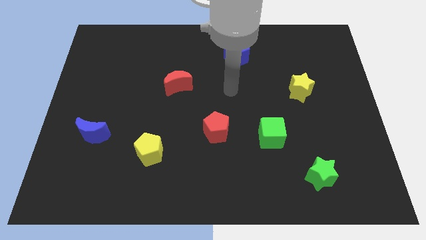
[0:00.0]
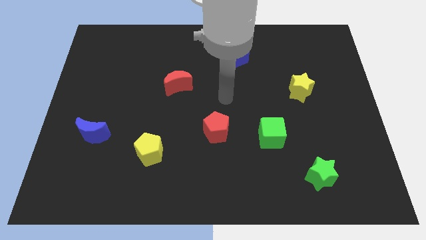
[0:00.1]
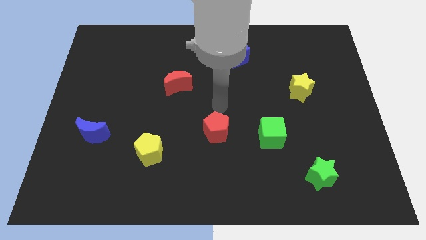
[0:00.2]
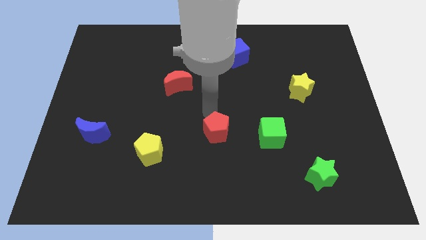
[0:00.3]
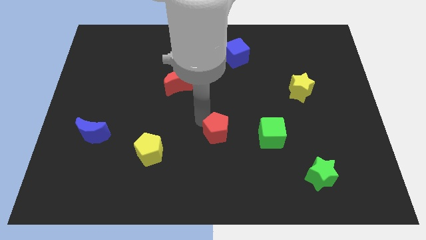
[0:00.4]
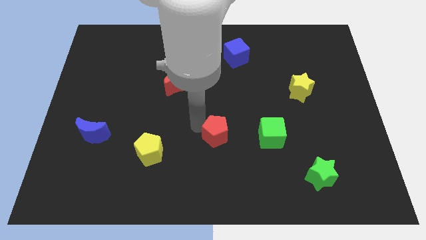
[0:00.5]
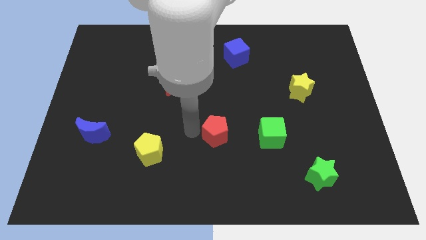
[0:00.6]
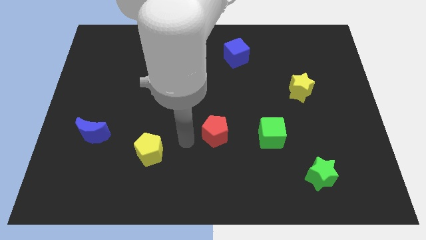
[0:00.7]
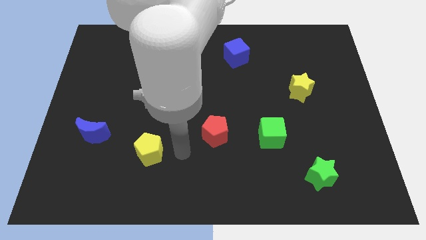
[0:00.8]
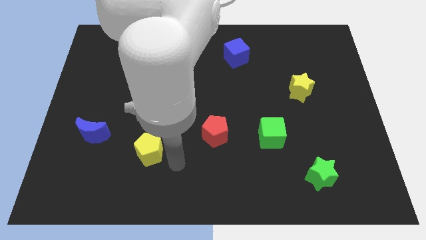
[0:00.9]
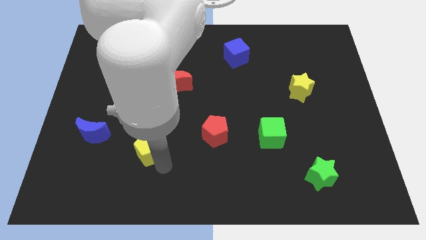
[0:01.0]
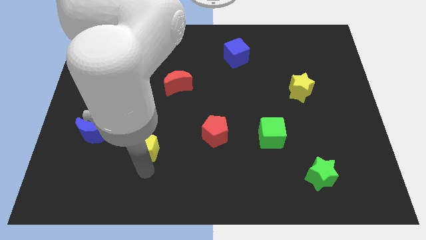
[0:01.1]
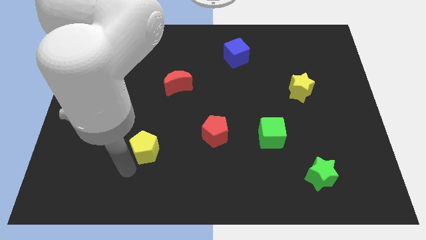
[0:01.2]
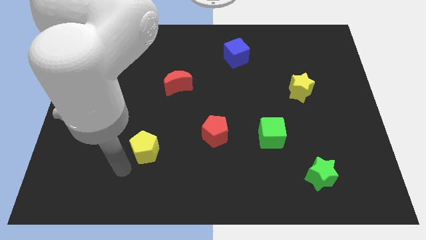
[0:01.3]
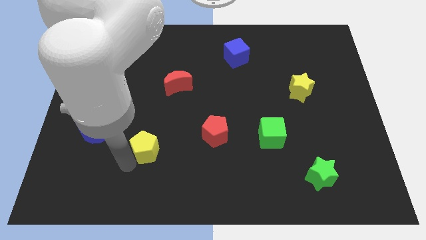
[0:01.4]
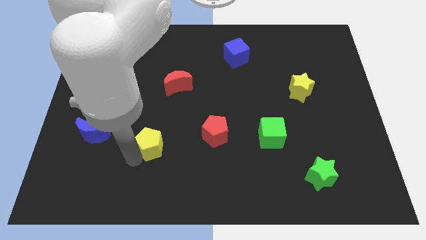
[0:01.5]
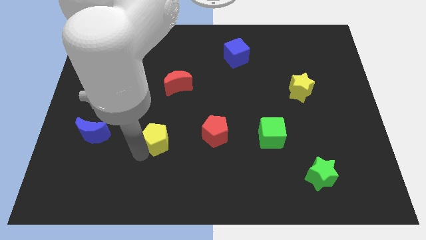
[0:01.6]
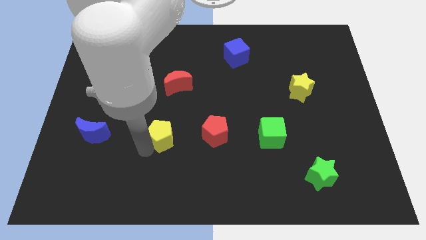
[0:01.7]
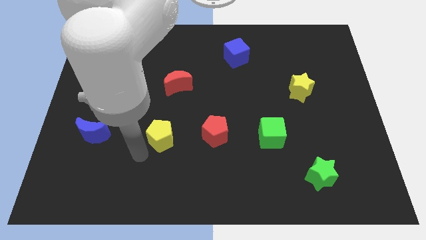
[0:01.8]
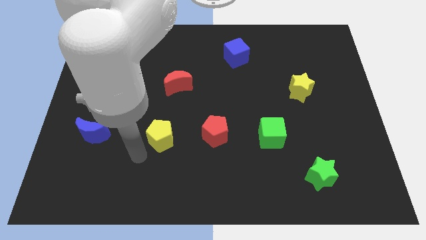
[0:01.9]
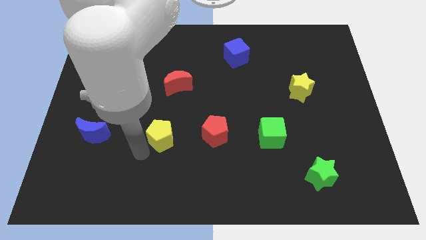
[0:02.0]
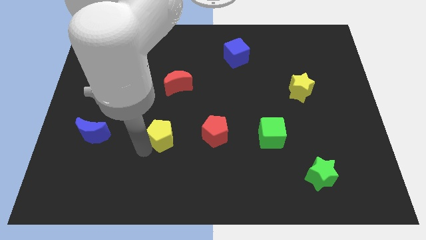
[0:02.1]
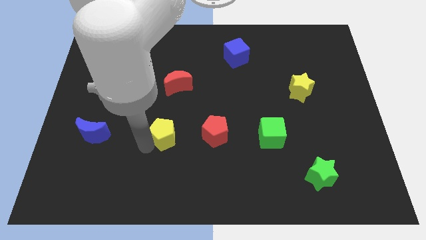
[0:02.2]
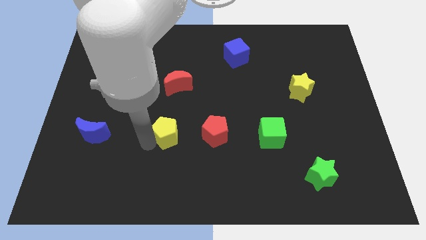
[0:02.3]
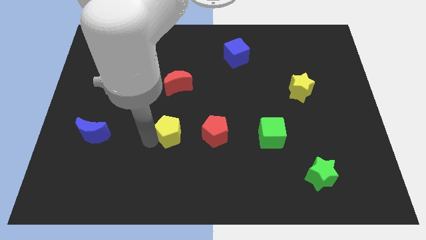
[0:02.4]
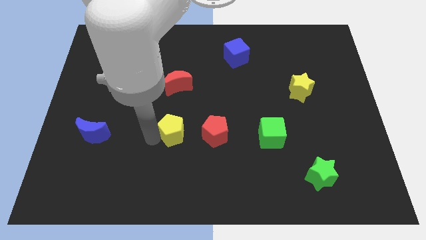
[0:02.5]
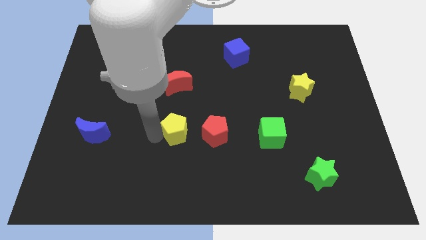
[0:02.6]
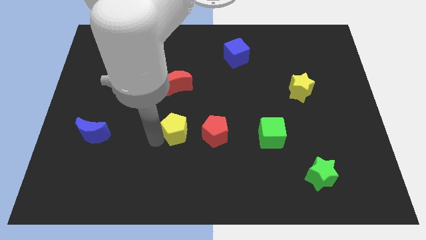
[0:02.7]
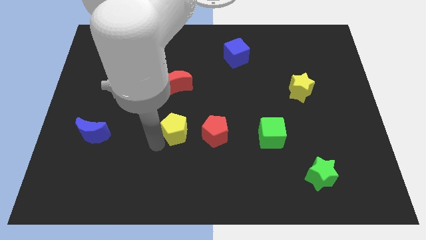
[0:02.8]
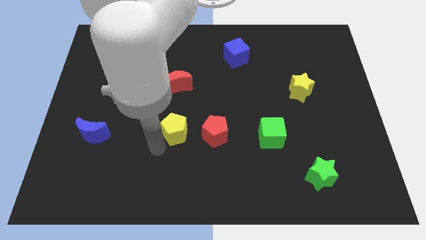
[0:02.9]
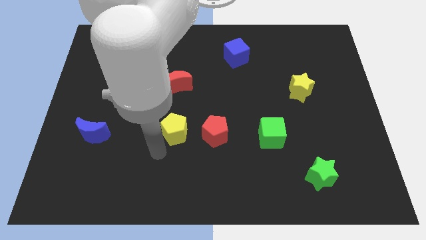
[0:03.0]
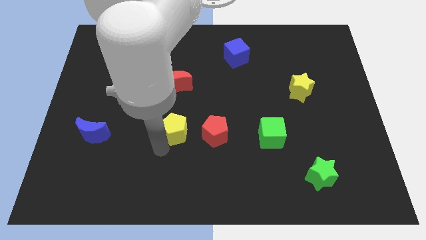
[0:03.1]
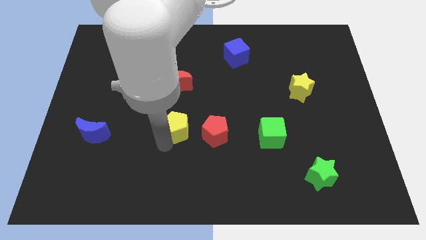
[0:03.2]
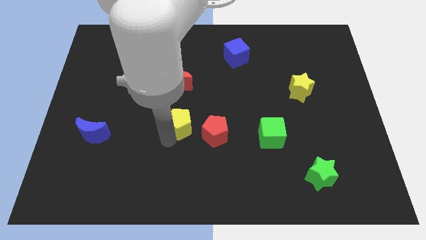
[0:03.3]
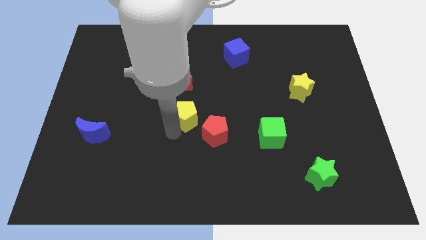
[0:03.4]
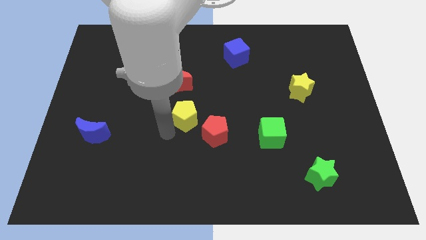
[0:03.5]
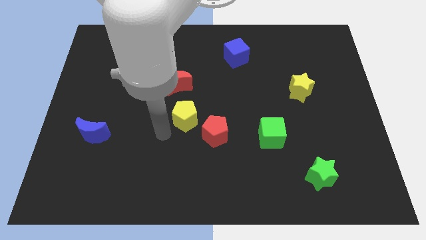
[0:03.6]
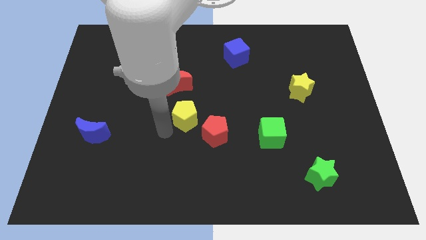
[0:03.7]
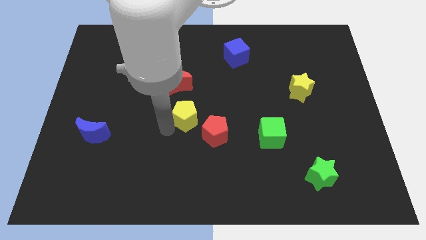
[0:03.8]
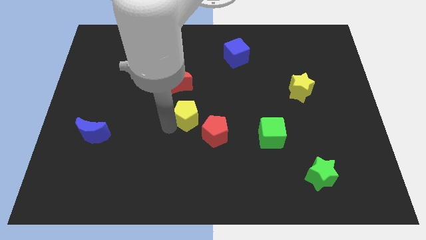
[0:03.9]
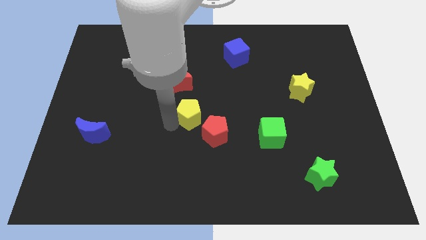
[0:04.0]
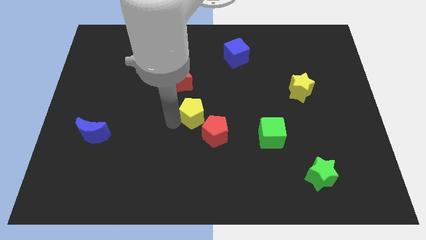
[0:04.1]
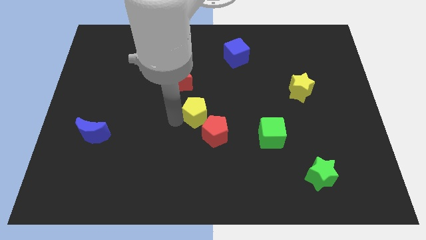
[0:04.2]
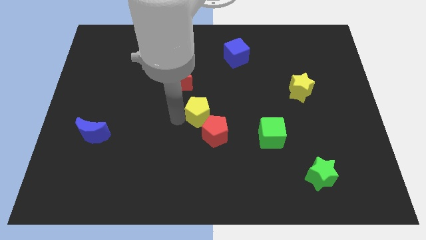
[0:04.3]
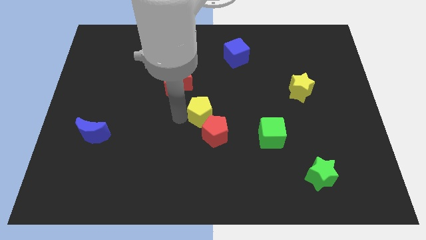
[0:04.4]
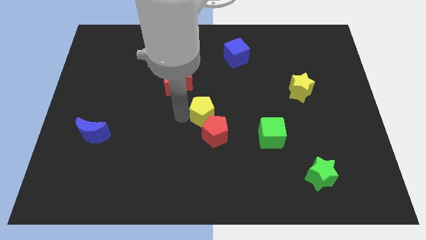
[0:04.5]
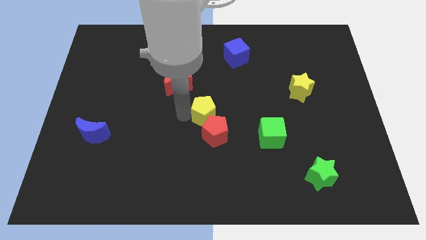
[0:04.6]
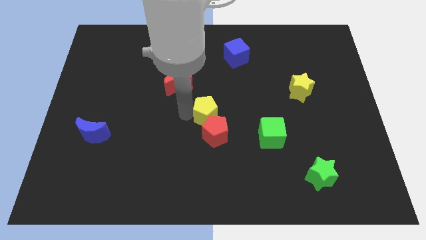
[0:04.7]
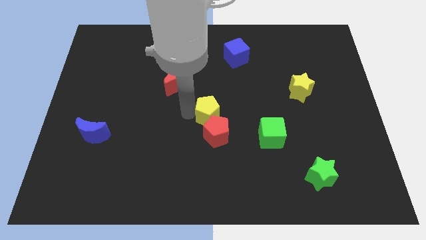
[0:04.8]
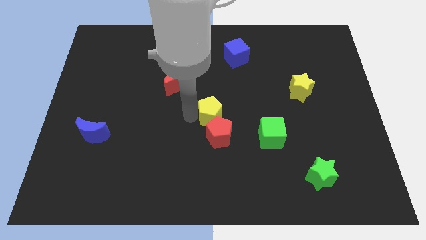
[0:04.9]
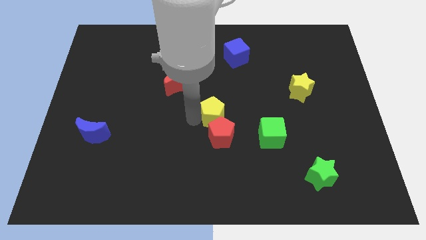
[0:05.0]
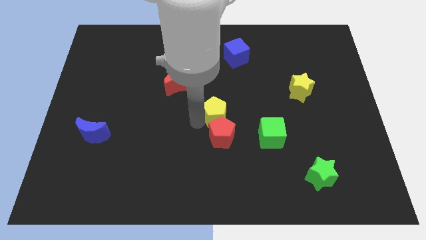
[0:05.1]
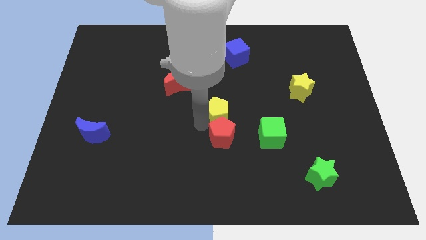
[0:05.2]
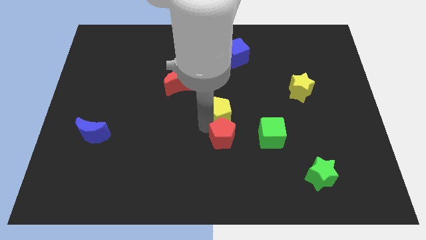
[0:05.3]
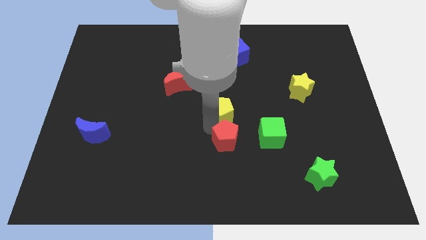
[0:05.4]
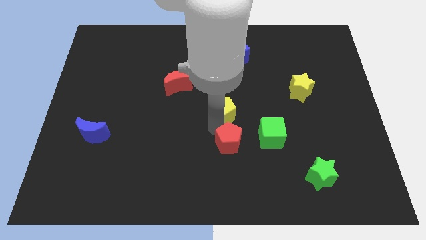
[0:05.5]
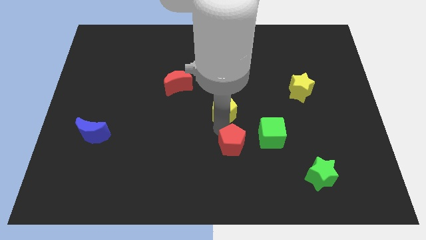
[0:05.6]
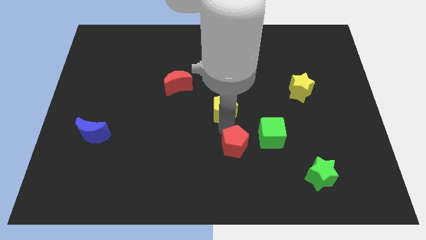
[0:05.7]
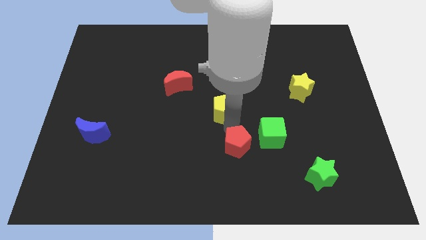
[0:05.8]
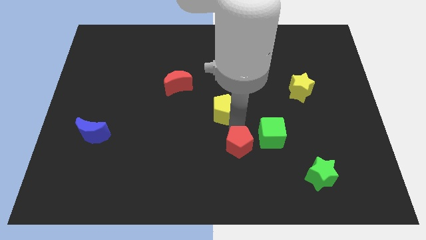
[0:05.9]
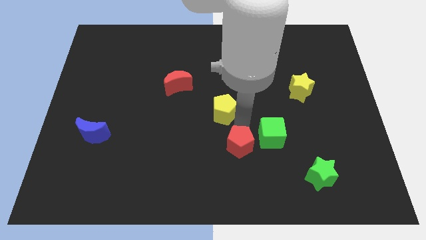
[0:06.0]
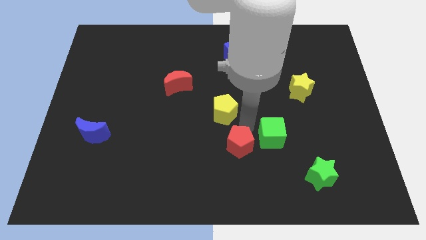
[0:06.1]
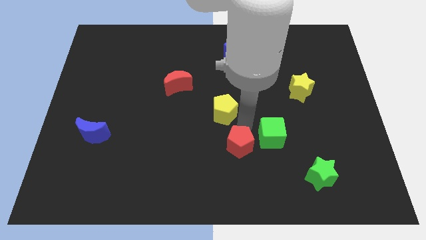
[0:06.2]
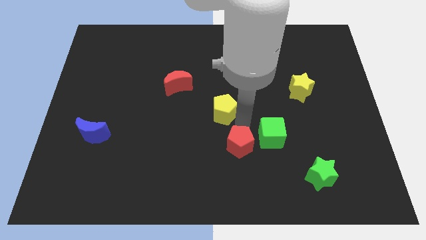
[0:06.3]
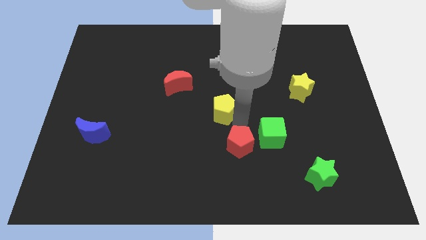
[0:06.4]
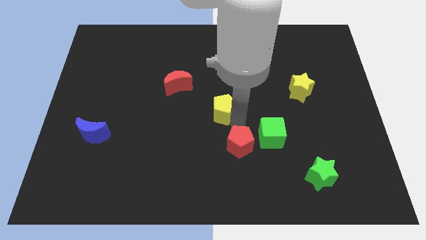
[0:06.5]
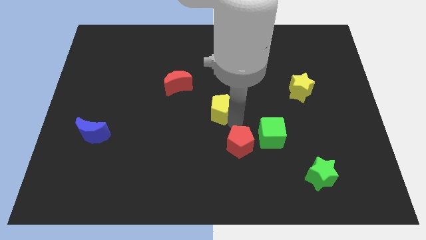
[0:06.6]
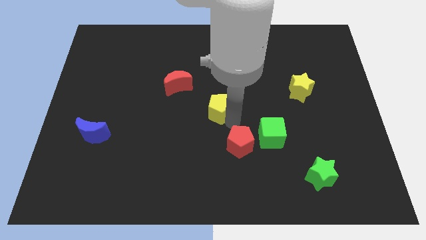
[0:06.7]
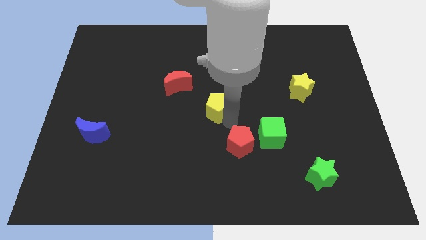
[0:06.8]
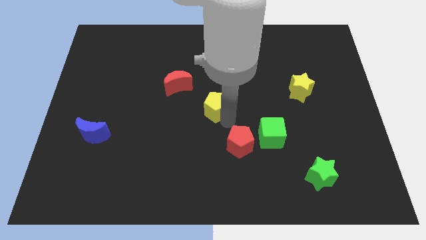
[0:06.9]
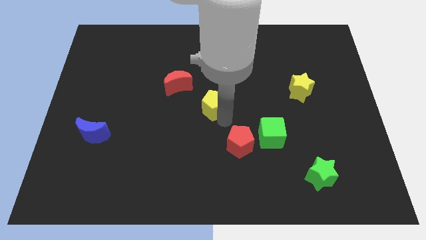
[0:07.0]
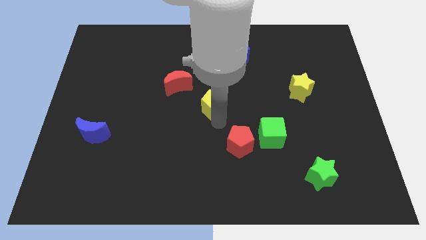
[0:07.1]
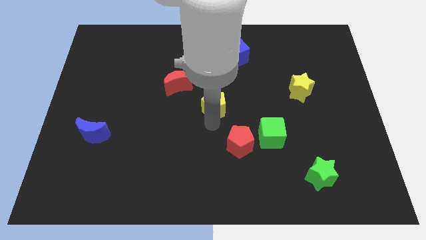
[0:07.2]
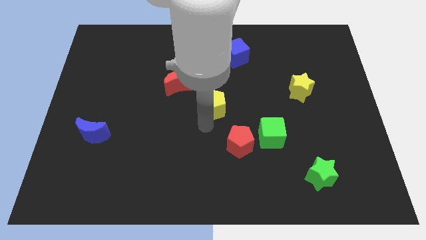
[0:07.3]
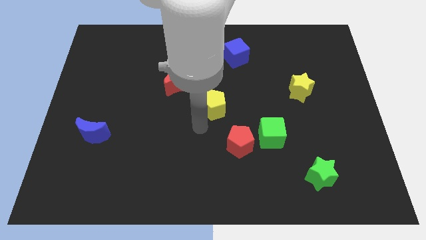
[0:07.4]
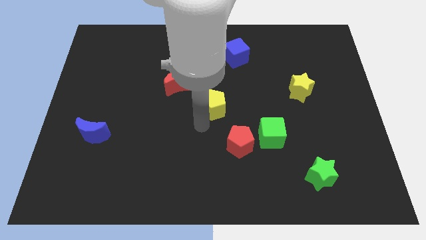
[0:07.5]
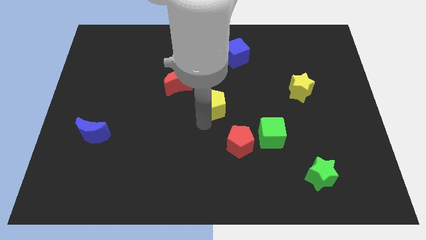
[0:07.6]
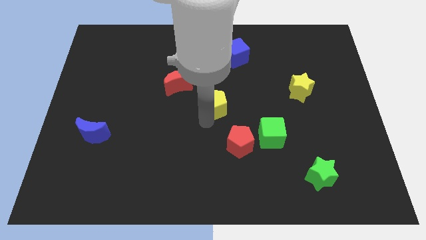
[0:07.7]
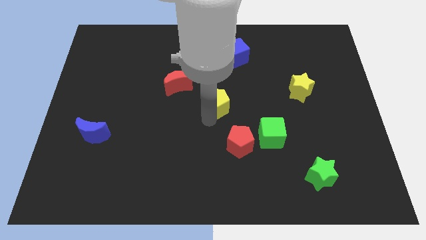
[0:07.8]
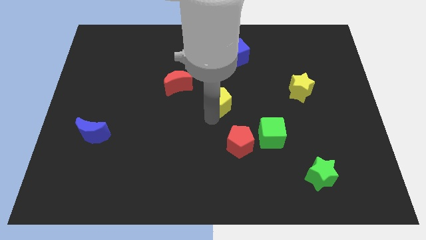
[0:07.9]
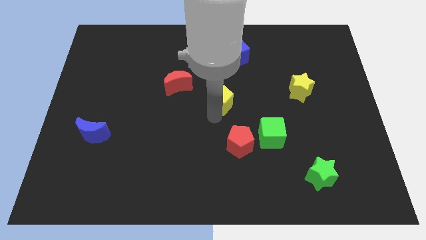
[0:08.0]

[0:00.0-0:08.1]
push the yellow pentagon upwards and to the right diagonally
